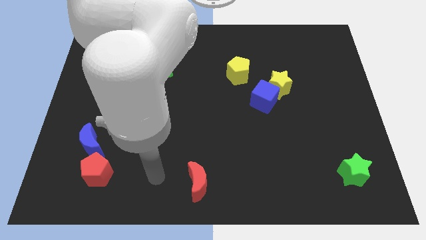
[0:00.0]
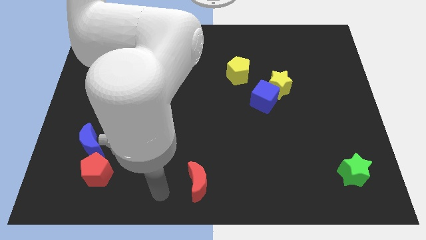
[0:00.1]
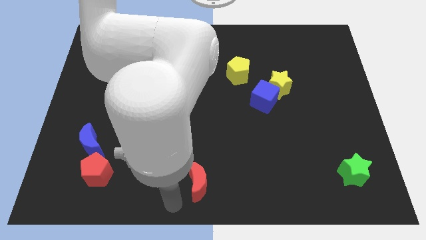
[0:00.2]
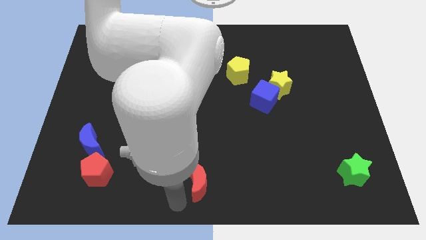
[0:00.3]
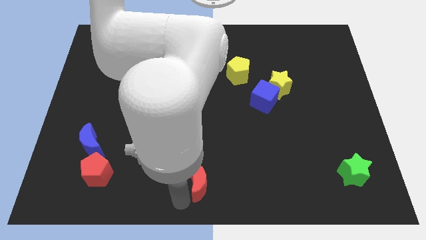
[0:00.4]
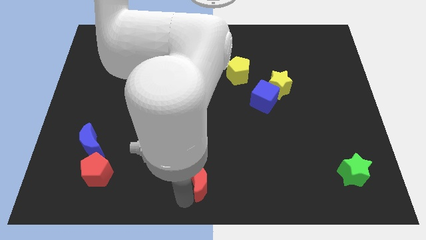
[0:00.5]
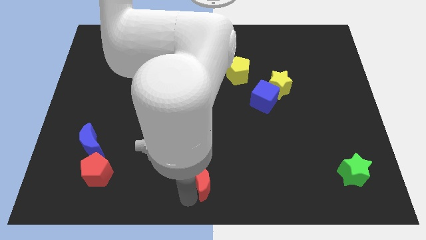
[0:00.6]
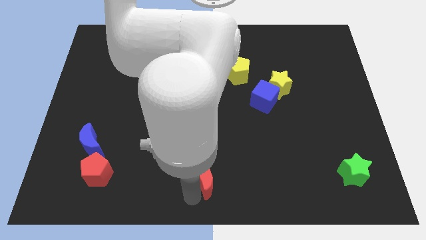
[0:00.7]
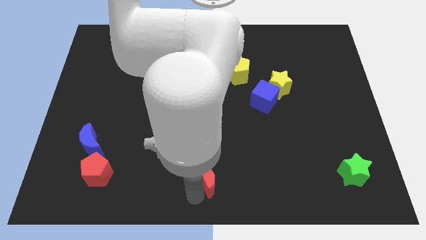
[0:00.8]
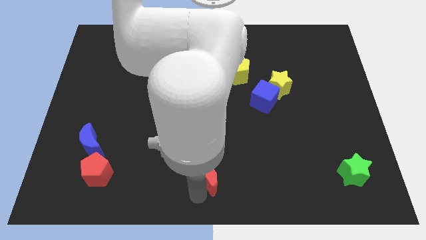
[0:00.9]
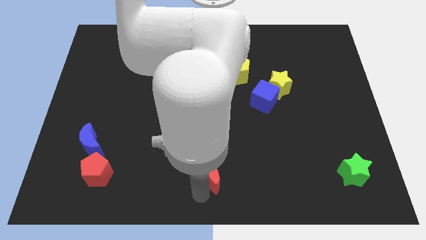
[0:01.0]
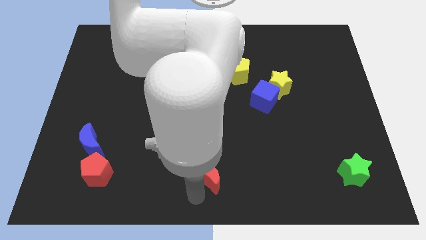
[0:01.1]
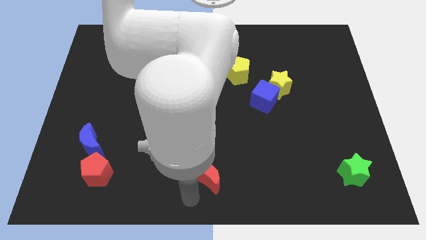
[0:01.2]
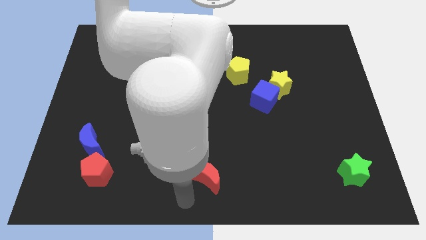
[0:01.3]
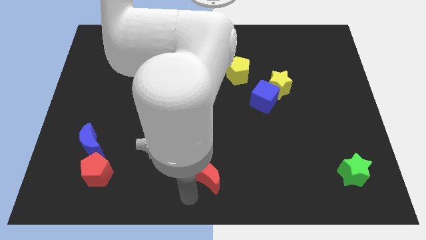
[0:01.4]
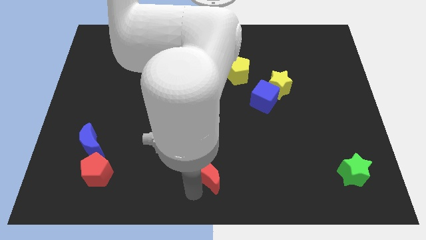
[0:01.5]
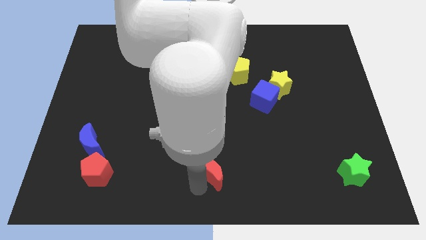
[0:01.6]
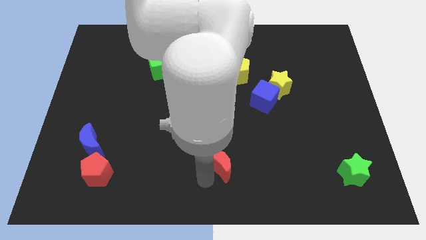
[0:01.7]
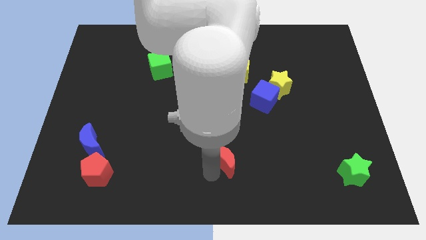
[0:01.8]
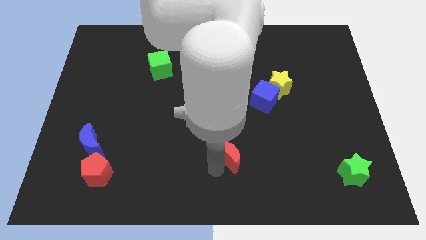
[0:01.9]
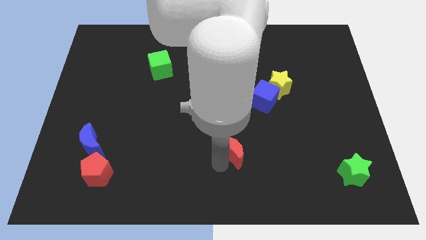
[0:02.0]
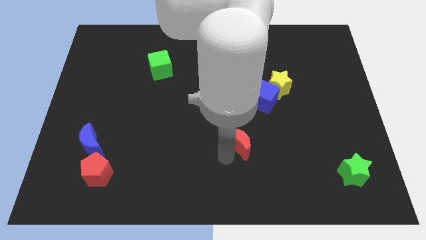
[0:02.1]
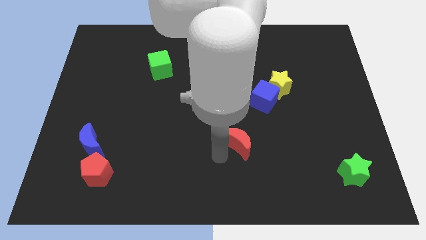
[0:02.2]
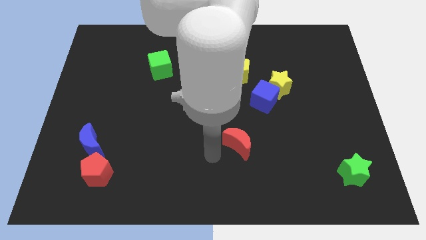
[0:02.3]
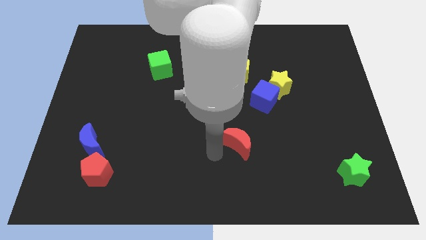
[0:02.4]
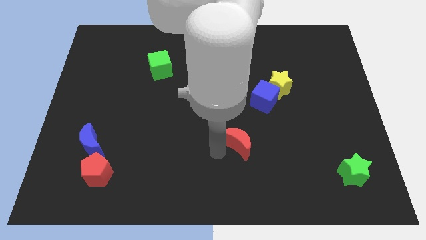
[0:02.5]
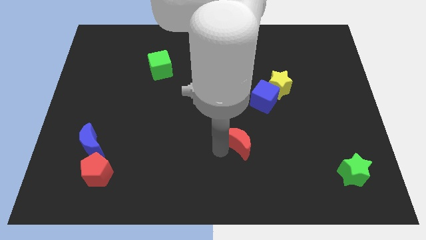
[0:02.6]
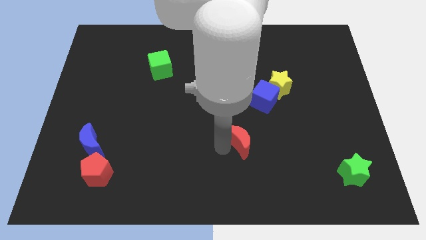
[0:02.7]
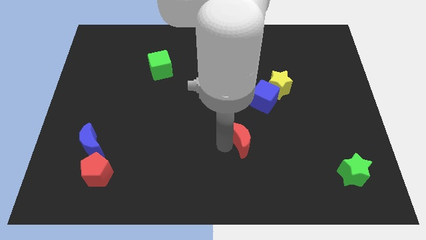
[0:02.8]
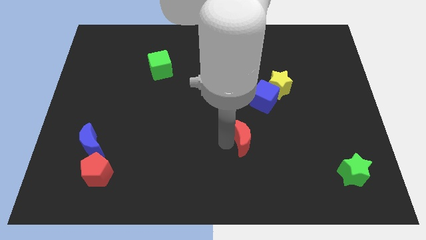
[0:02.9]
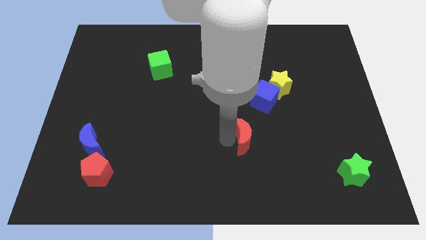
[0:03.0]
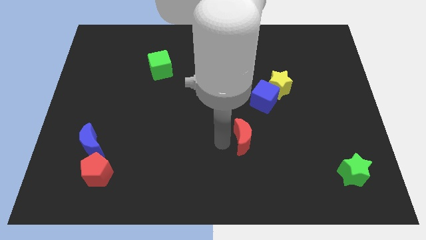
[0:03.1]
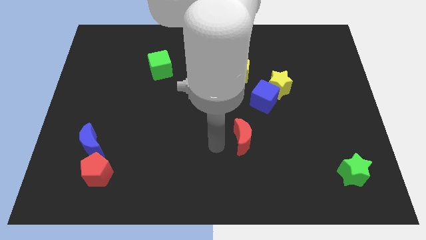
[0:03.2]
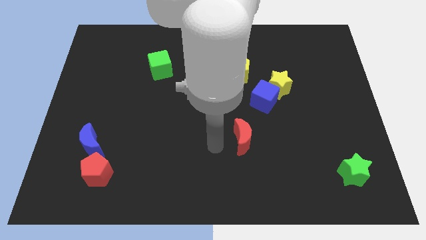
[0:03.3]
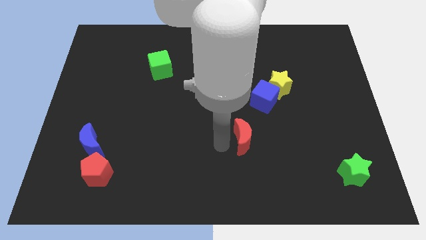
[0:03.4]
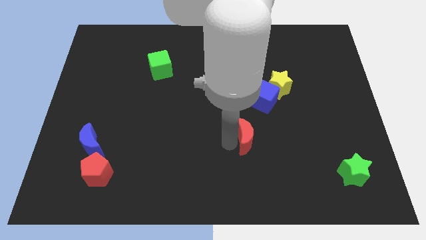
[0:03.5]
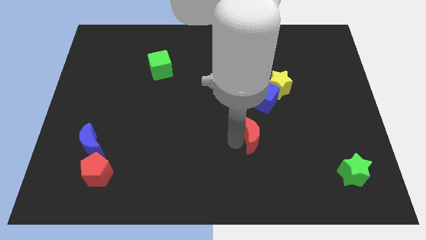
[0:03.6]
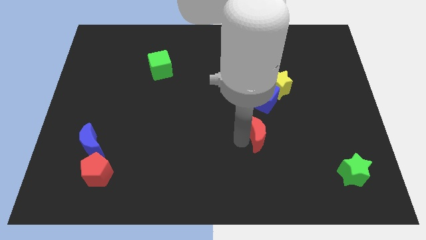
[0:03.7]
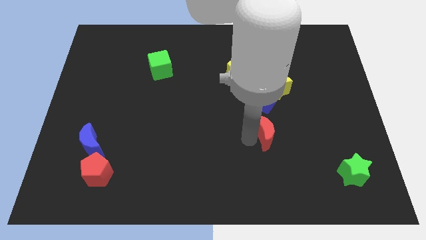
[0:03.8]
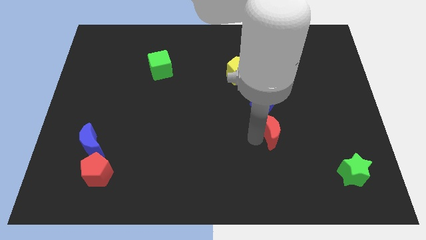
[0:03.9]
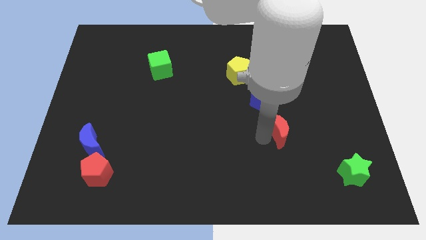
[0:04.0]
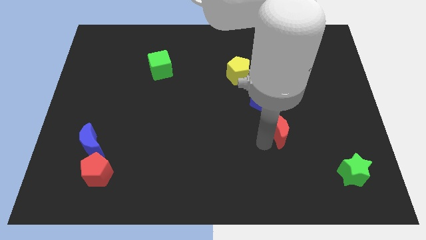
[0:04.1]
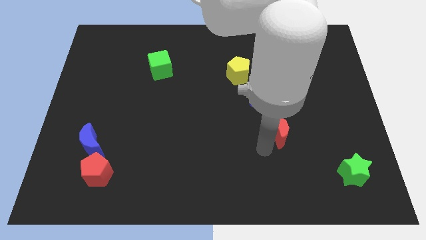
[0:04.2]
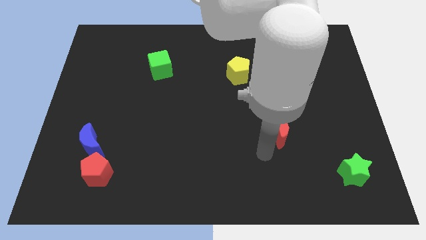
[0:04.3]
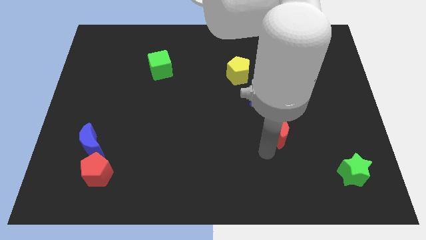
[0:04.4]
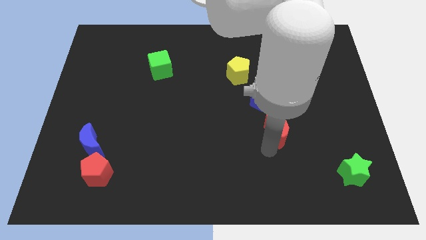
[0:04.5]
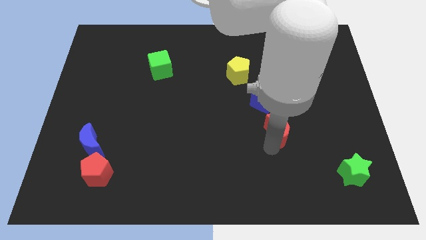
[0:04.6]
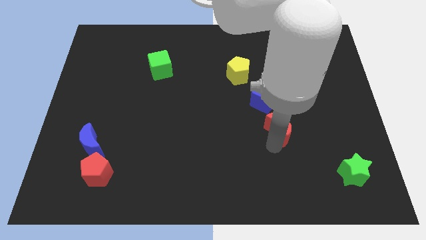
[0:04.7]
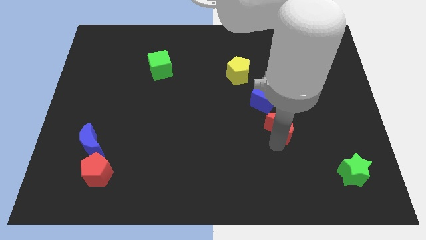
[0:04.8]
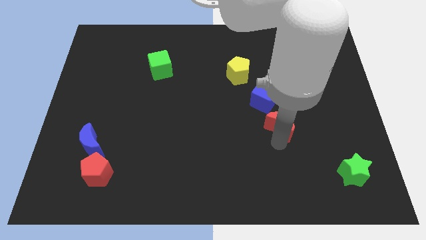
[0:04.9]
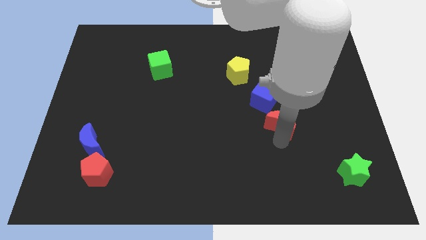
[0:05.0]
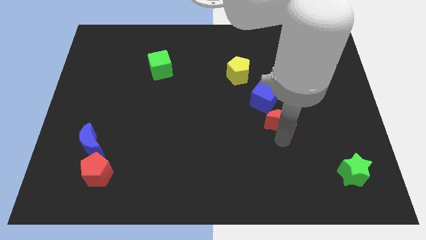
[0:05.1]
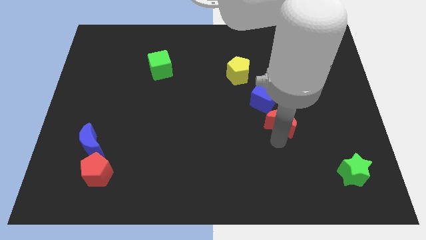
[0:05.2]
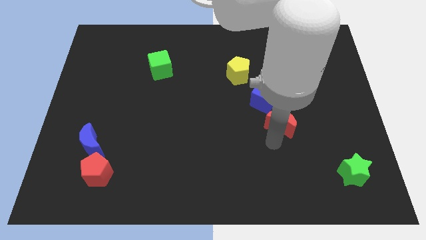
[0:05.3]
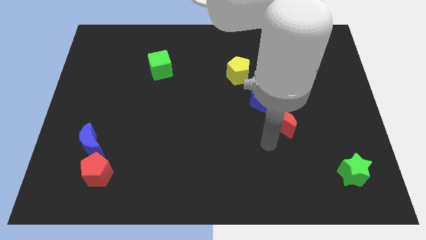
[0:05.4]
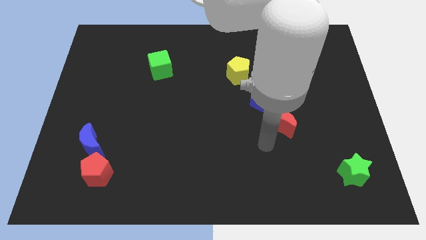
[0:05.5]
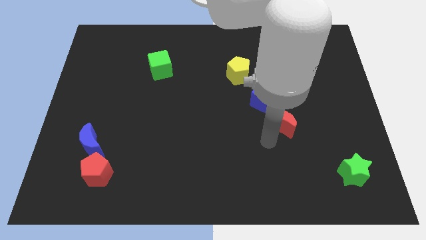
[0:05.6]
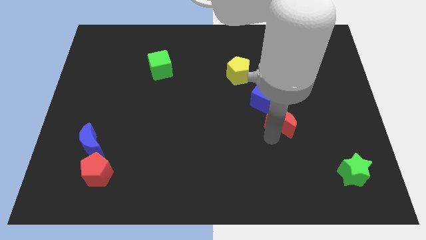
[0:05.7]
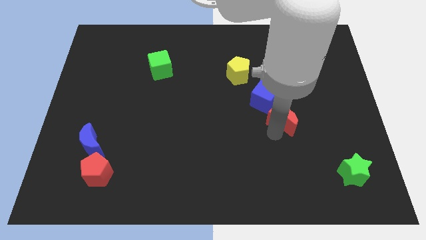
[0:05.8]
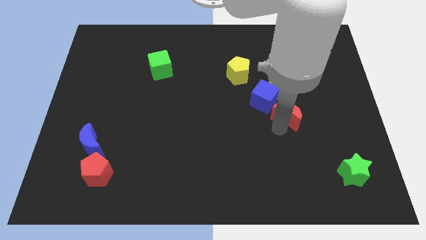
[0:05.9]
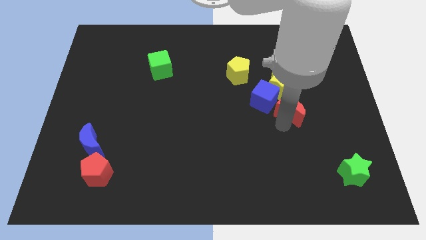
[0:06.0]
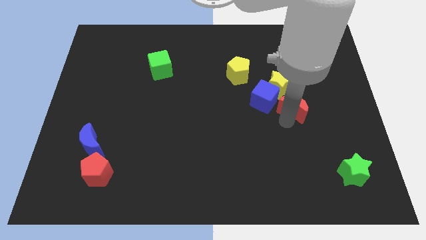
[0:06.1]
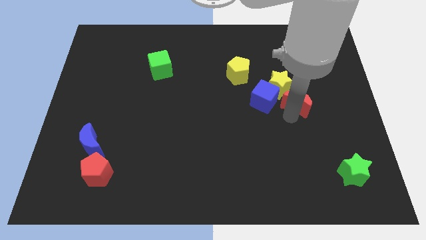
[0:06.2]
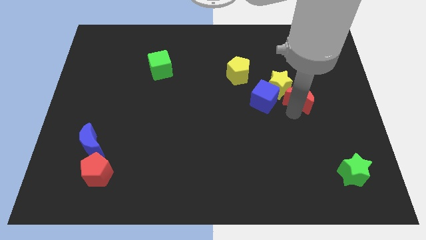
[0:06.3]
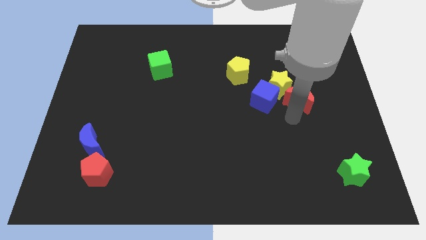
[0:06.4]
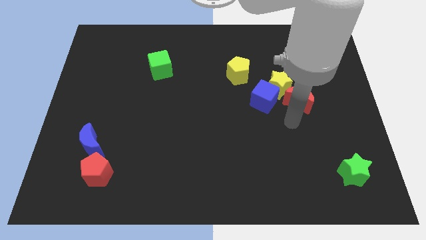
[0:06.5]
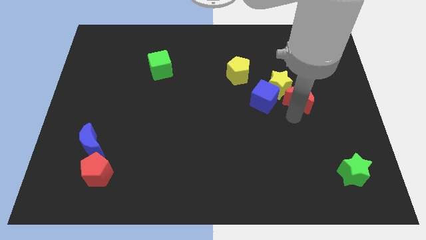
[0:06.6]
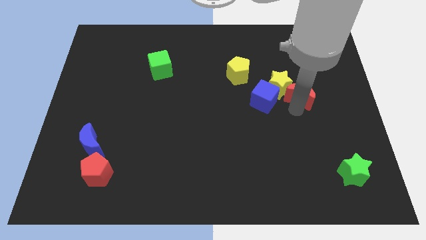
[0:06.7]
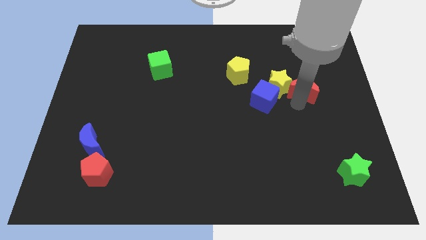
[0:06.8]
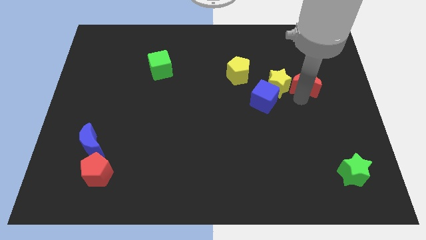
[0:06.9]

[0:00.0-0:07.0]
put the red moon diagonally up and to the right of the blue cube
